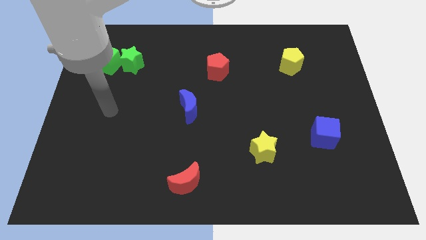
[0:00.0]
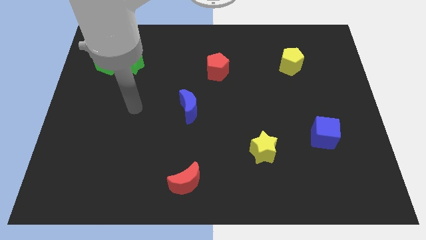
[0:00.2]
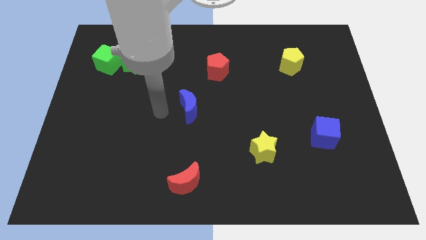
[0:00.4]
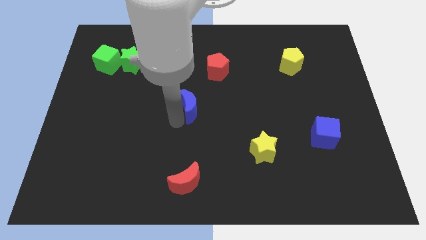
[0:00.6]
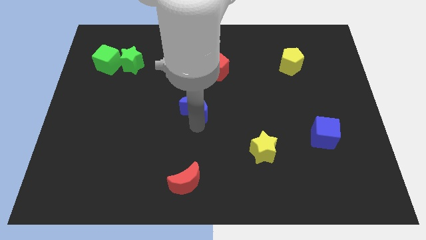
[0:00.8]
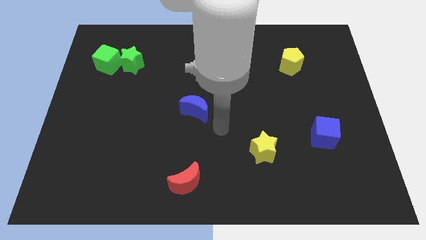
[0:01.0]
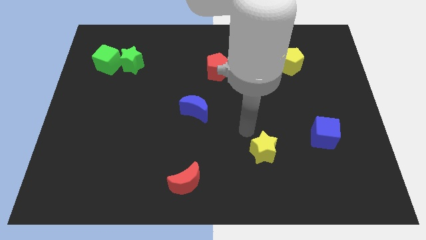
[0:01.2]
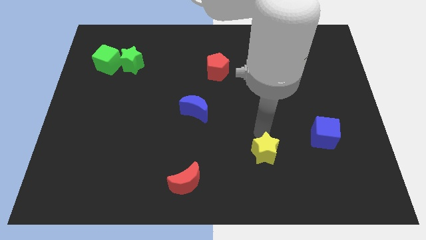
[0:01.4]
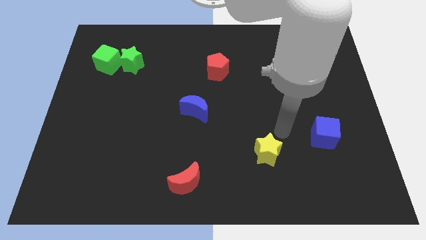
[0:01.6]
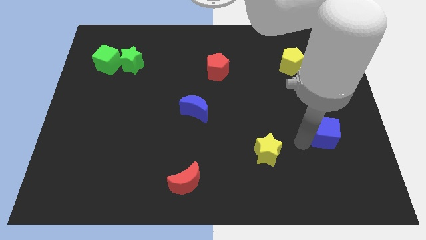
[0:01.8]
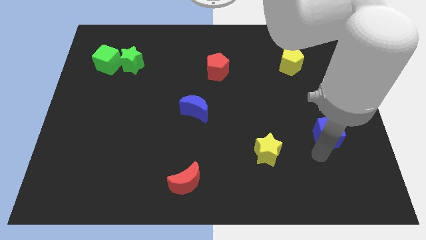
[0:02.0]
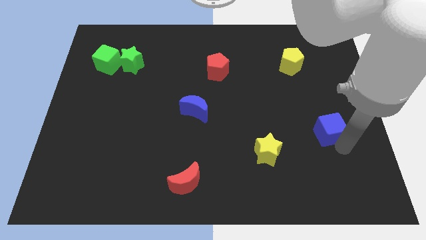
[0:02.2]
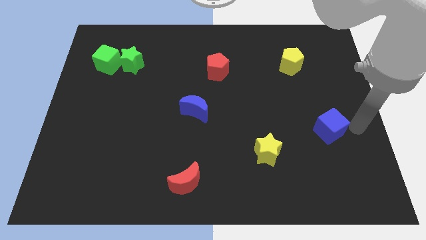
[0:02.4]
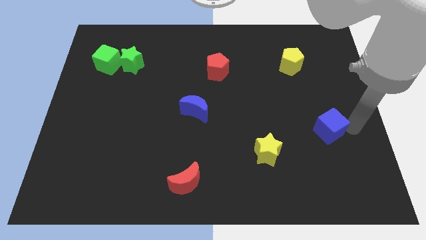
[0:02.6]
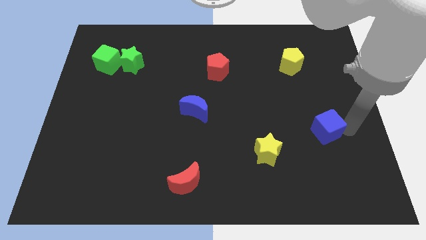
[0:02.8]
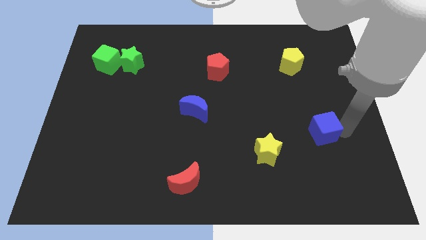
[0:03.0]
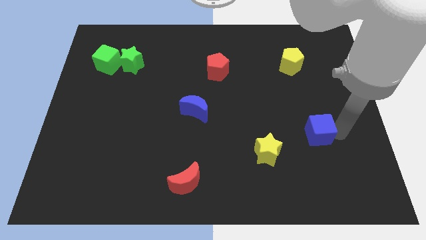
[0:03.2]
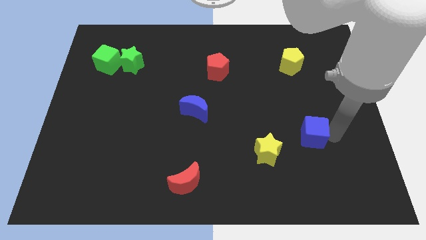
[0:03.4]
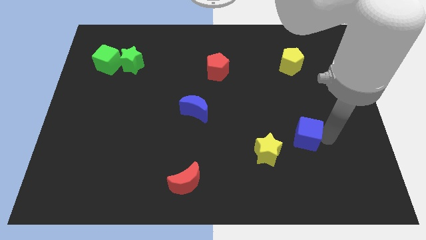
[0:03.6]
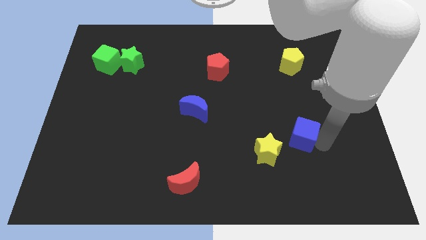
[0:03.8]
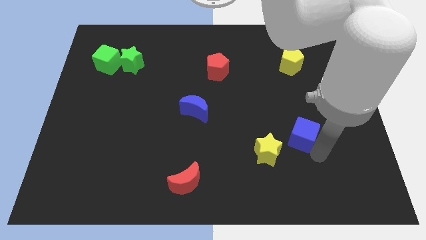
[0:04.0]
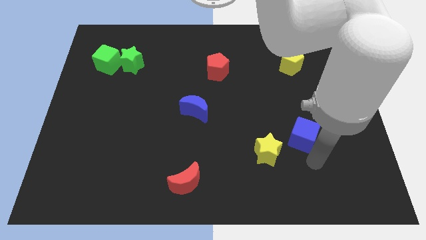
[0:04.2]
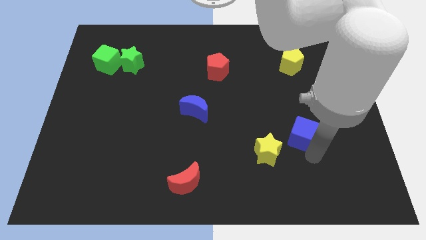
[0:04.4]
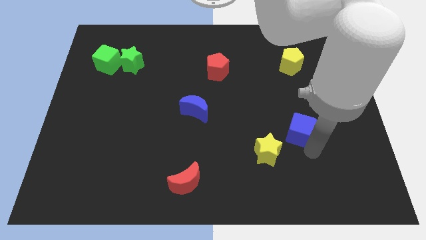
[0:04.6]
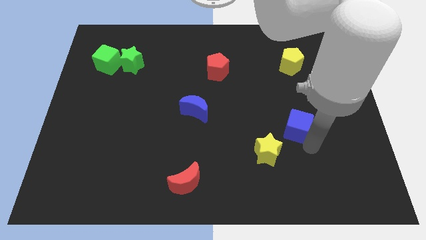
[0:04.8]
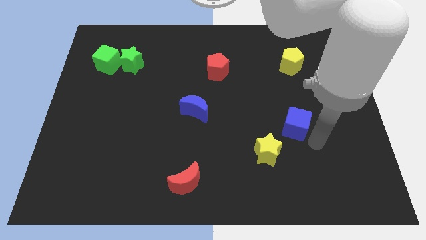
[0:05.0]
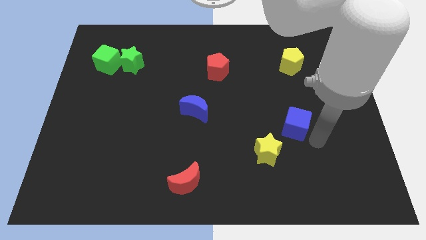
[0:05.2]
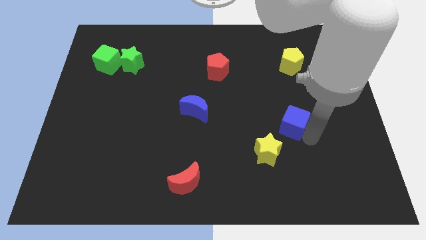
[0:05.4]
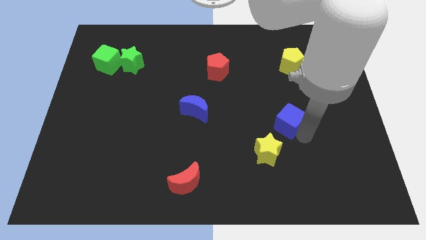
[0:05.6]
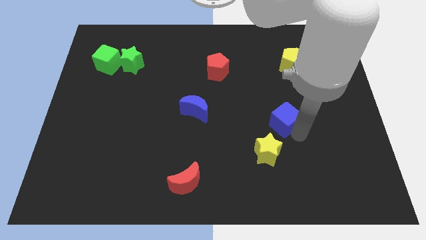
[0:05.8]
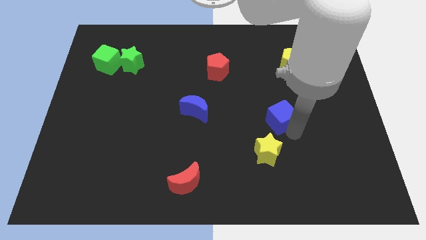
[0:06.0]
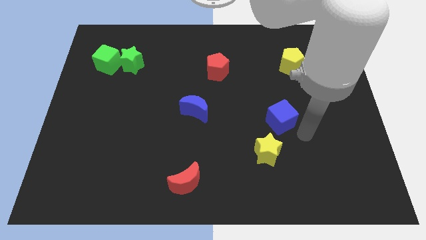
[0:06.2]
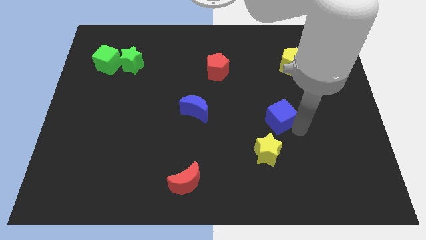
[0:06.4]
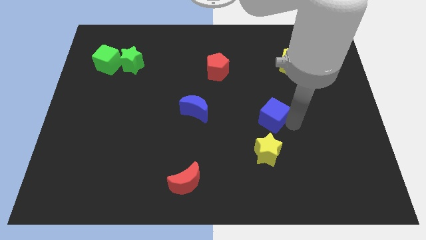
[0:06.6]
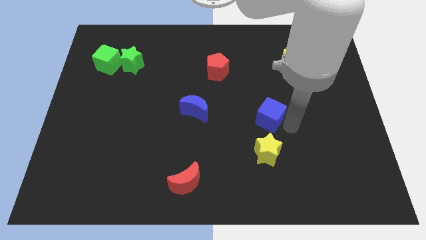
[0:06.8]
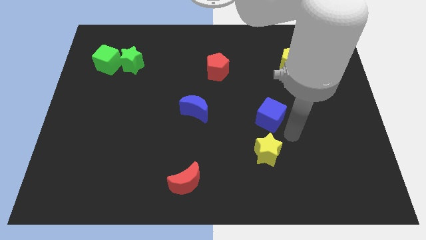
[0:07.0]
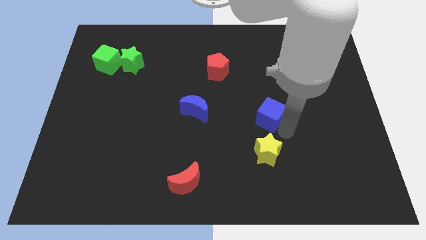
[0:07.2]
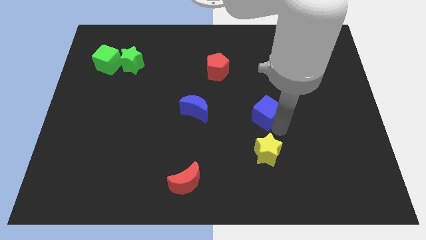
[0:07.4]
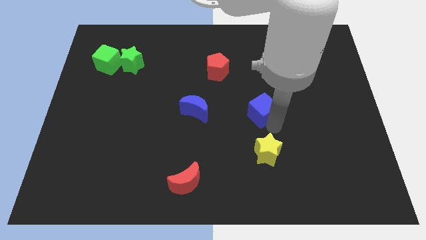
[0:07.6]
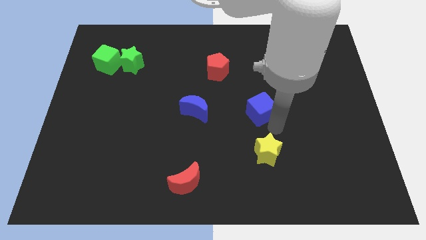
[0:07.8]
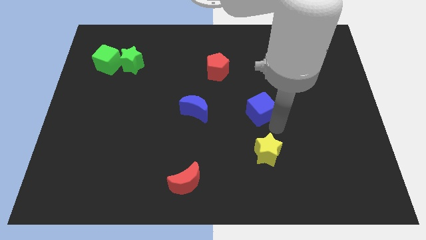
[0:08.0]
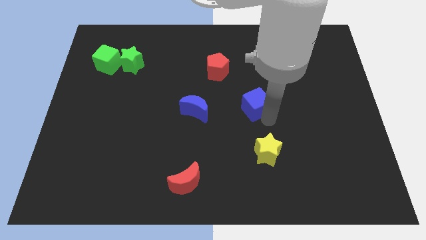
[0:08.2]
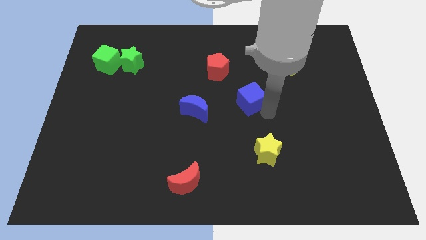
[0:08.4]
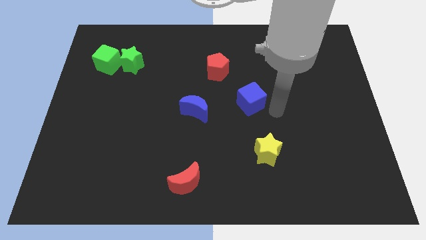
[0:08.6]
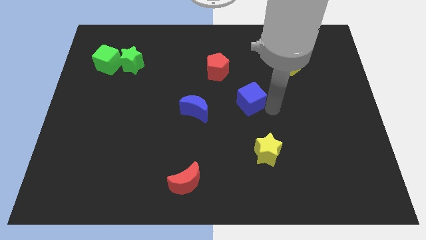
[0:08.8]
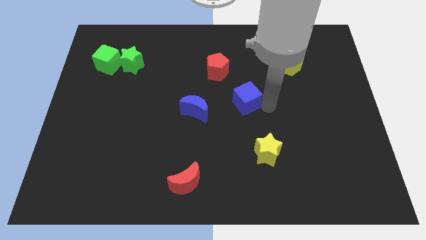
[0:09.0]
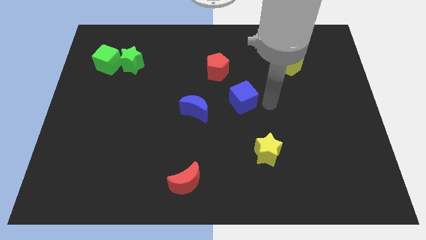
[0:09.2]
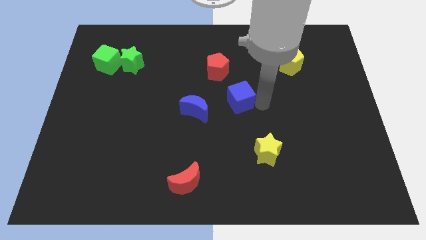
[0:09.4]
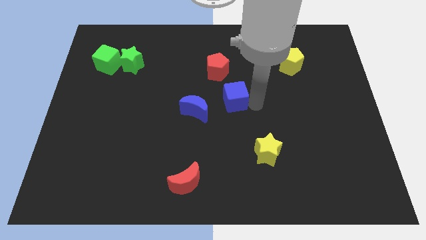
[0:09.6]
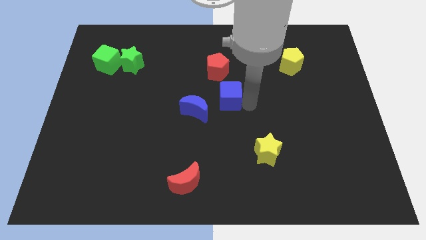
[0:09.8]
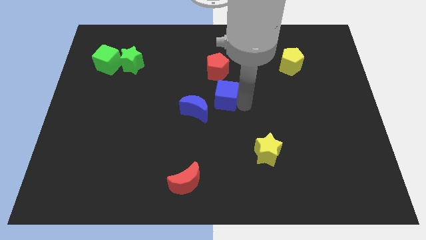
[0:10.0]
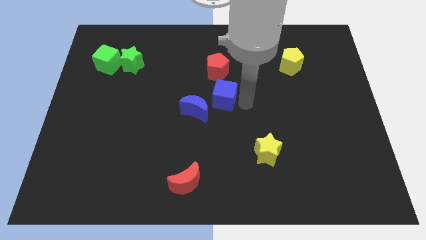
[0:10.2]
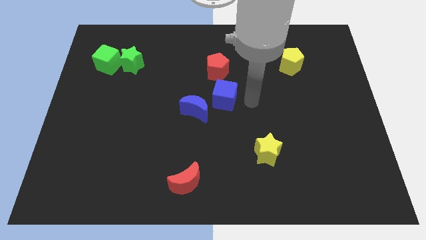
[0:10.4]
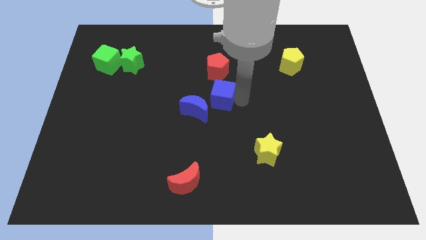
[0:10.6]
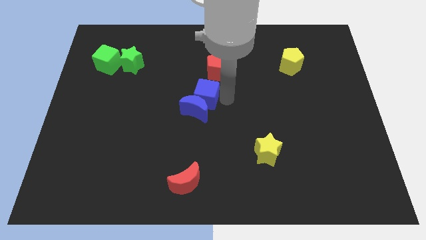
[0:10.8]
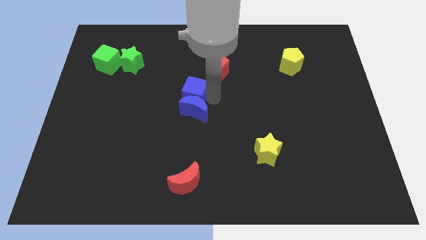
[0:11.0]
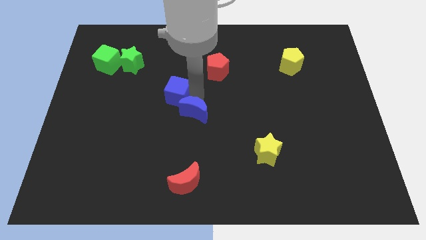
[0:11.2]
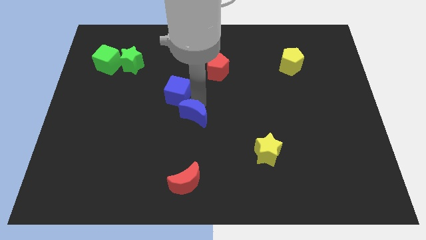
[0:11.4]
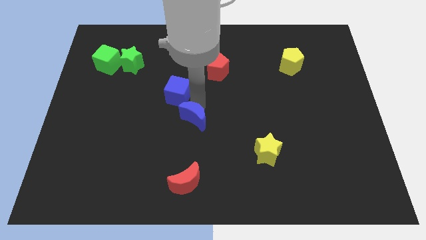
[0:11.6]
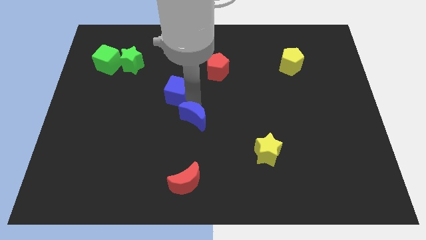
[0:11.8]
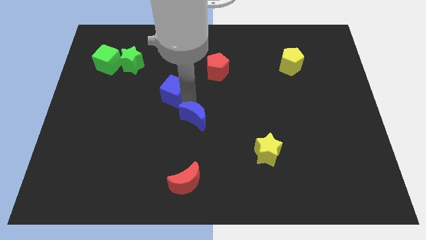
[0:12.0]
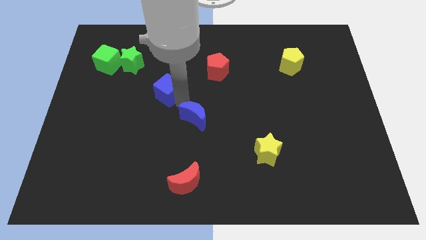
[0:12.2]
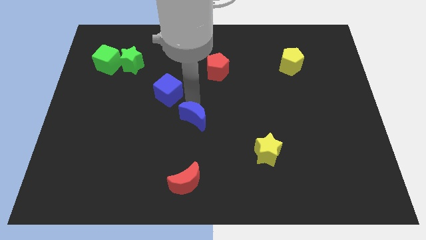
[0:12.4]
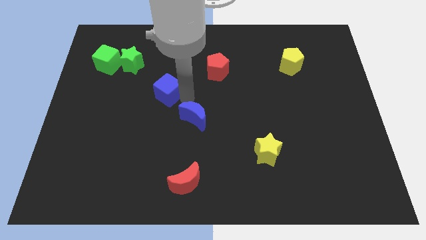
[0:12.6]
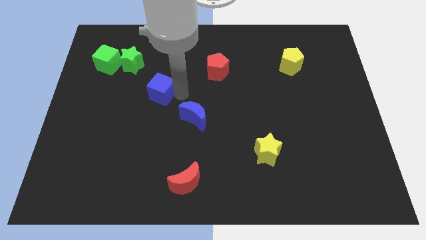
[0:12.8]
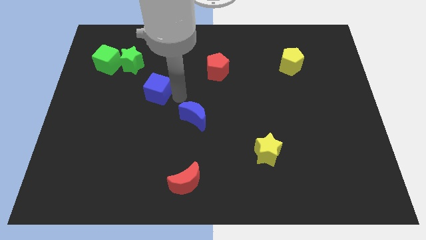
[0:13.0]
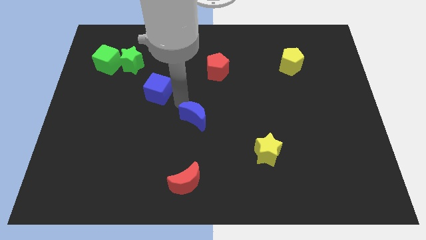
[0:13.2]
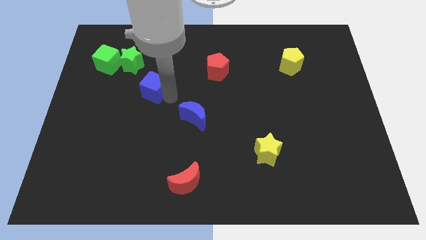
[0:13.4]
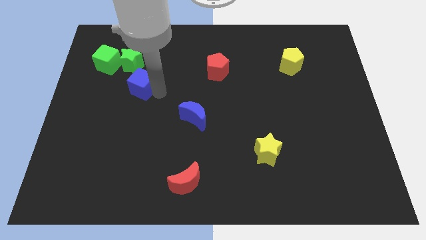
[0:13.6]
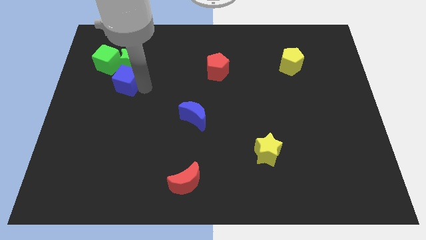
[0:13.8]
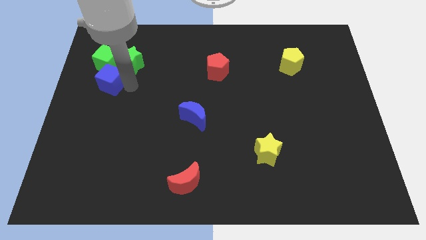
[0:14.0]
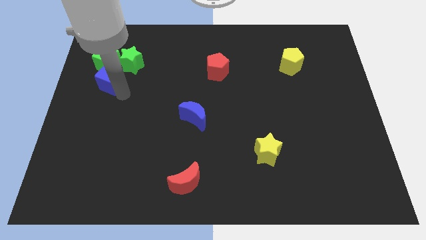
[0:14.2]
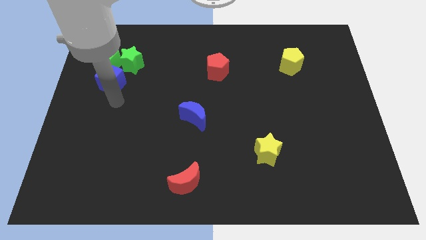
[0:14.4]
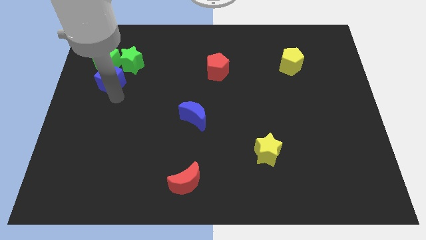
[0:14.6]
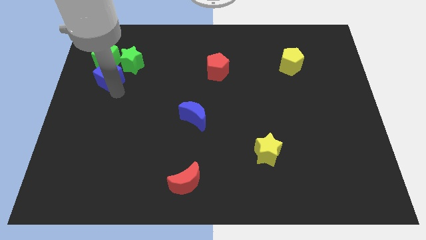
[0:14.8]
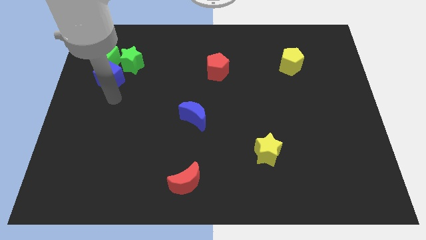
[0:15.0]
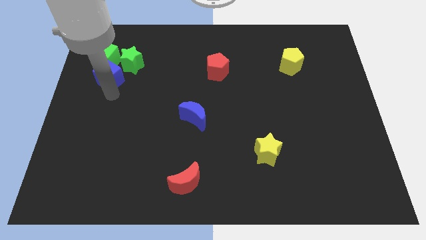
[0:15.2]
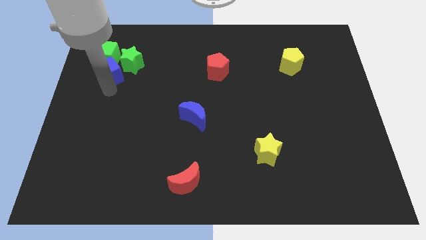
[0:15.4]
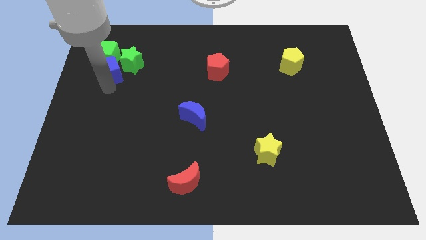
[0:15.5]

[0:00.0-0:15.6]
push the blue cube towards the green cube
